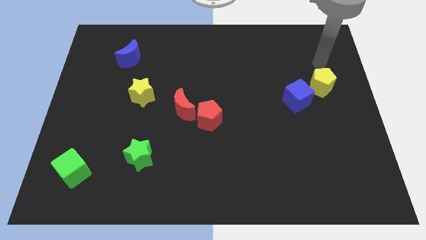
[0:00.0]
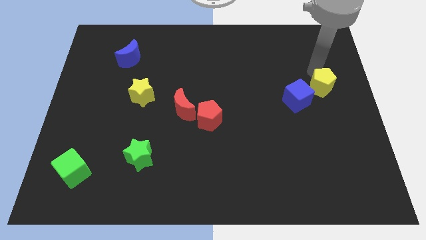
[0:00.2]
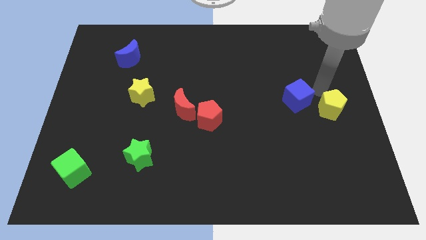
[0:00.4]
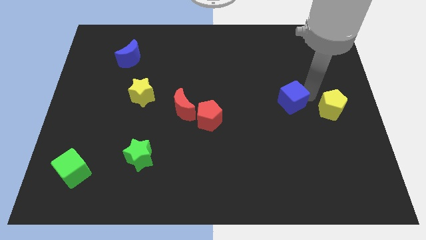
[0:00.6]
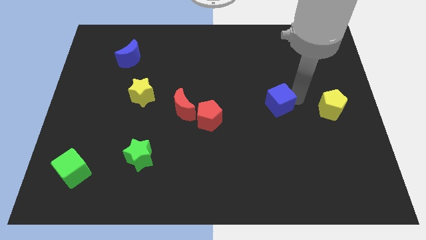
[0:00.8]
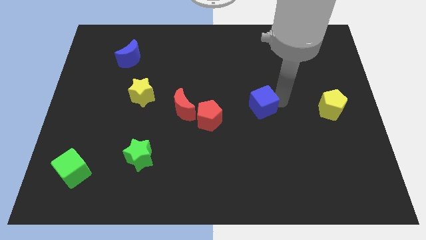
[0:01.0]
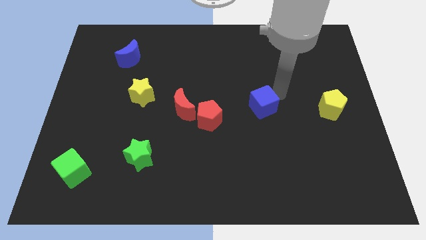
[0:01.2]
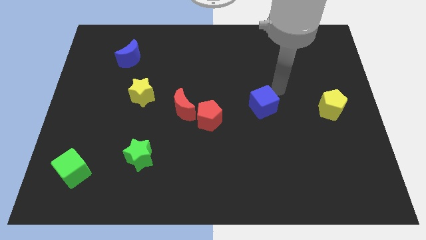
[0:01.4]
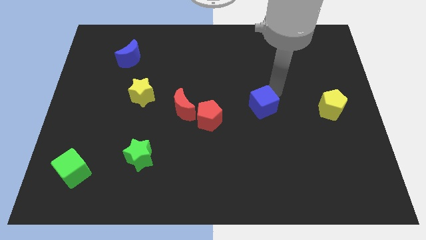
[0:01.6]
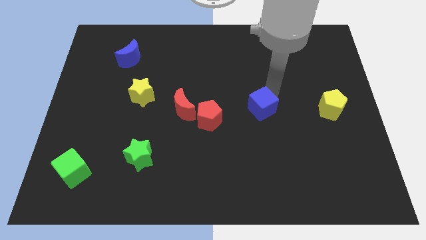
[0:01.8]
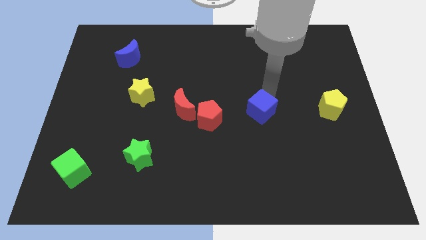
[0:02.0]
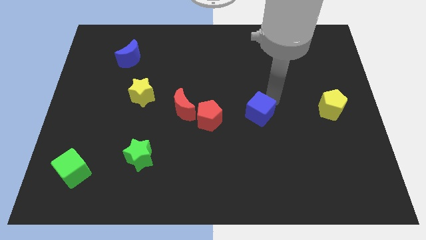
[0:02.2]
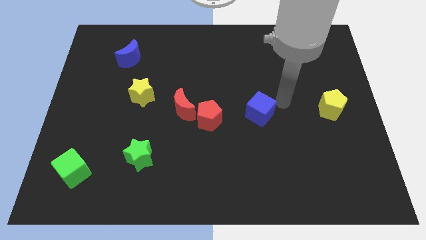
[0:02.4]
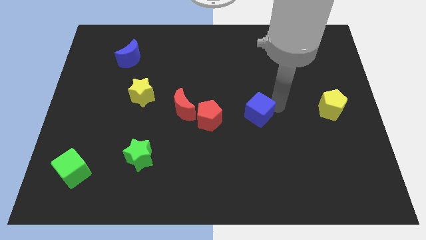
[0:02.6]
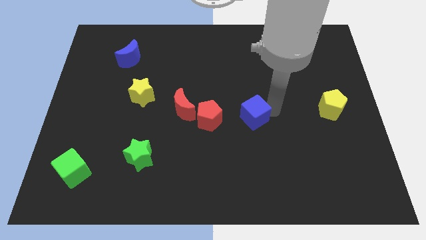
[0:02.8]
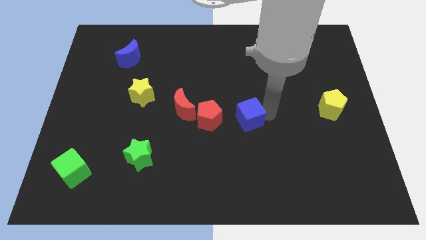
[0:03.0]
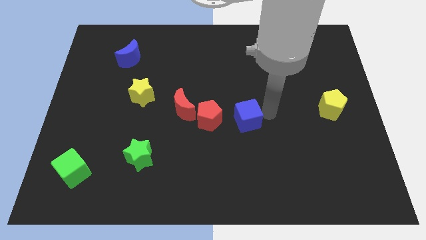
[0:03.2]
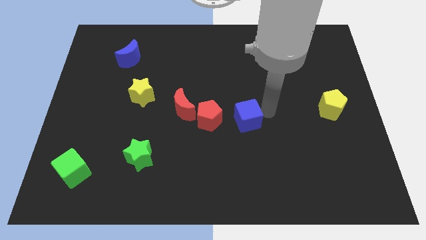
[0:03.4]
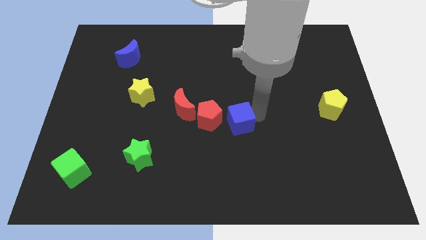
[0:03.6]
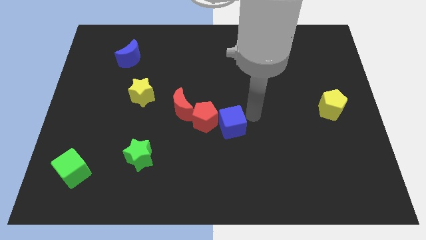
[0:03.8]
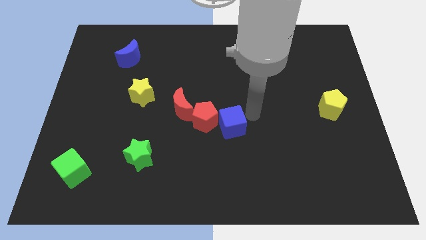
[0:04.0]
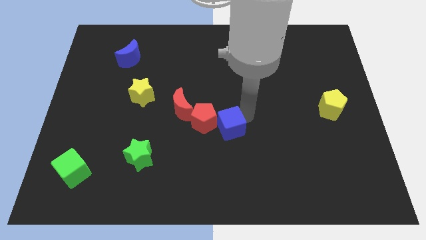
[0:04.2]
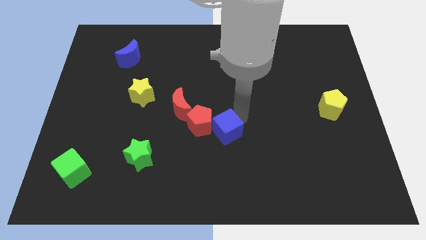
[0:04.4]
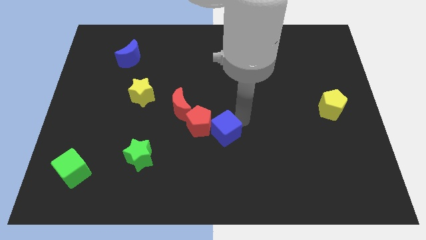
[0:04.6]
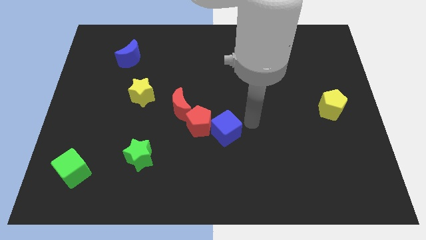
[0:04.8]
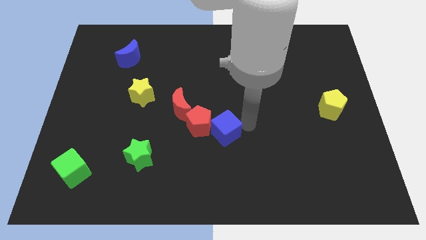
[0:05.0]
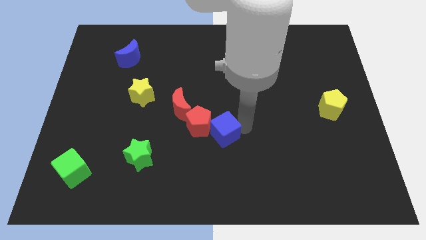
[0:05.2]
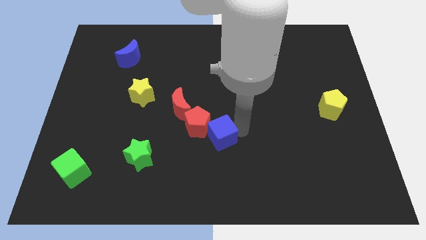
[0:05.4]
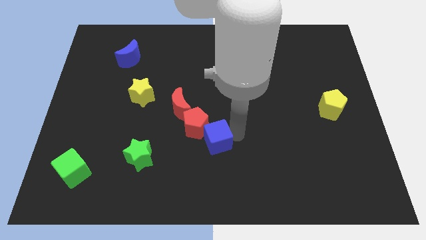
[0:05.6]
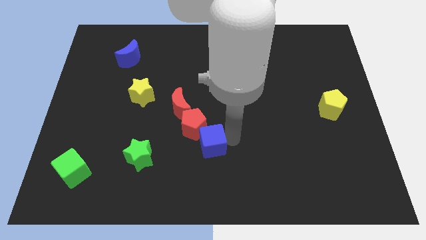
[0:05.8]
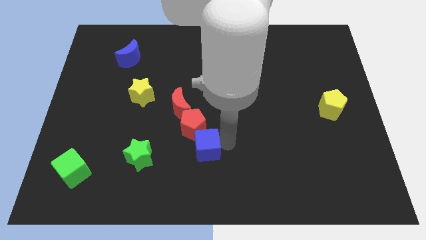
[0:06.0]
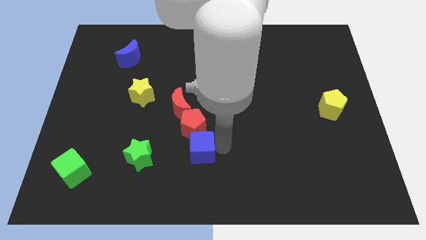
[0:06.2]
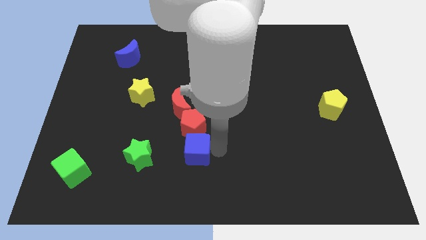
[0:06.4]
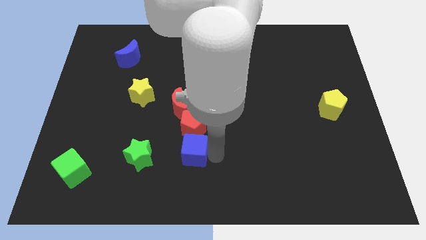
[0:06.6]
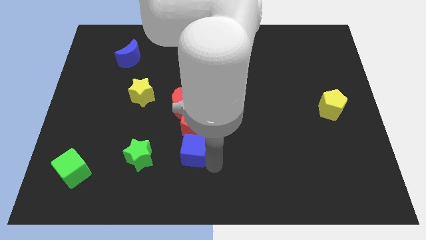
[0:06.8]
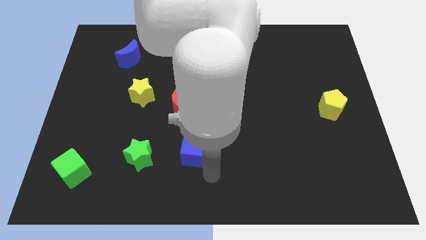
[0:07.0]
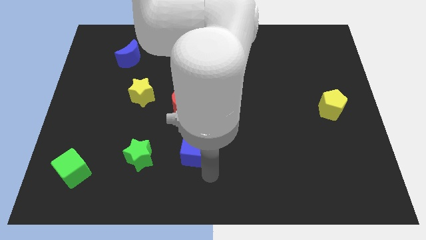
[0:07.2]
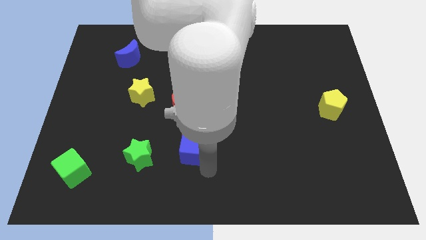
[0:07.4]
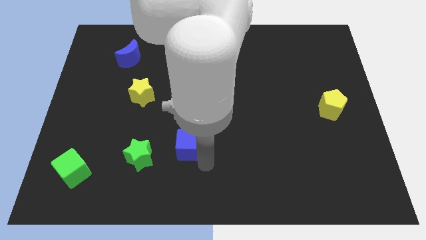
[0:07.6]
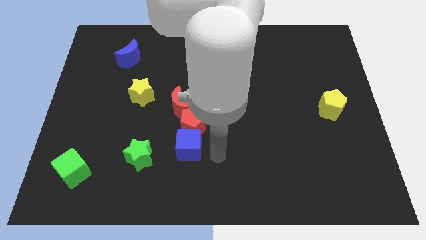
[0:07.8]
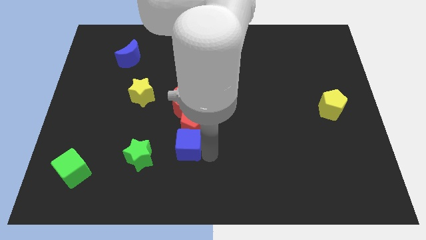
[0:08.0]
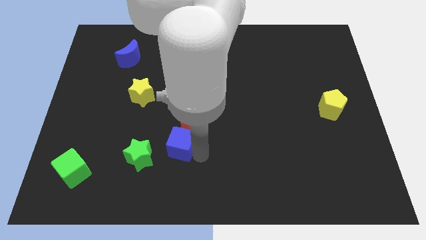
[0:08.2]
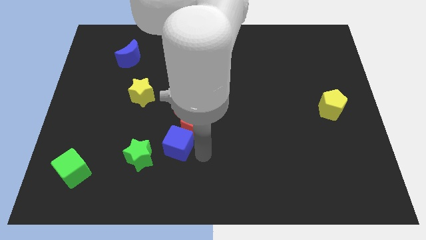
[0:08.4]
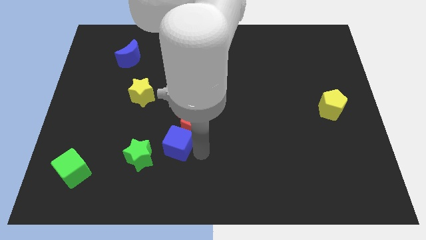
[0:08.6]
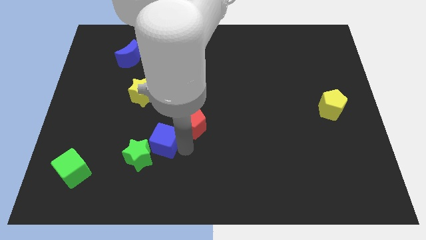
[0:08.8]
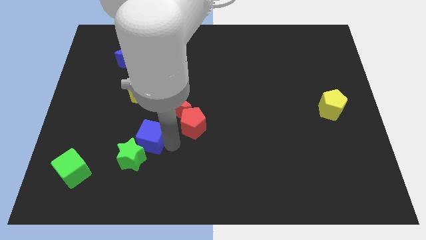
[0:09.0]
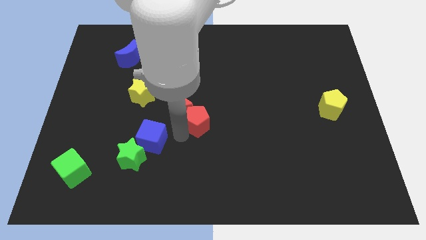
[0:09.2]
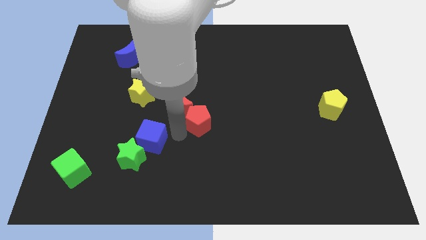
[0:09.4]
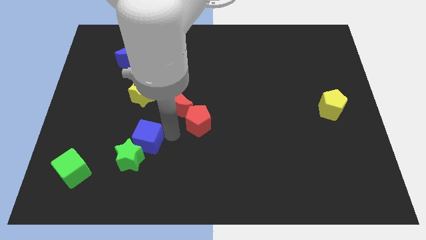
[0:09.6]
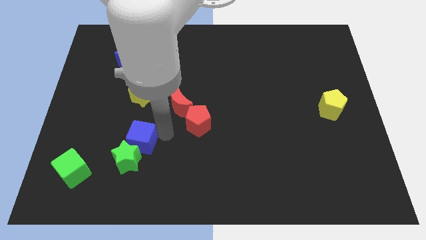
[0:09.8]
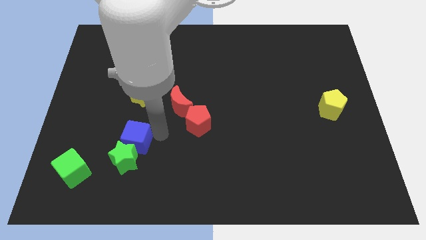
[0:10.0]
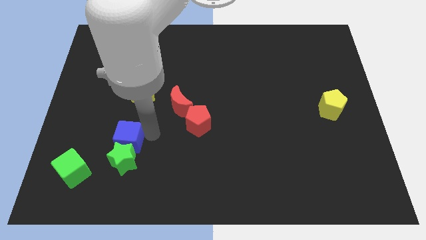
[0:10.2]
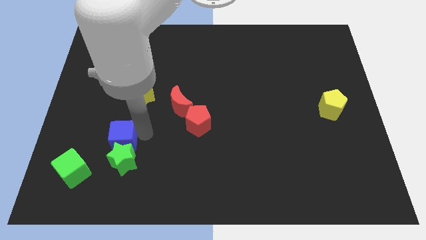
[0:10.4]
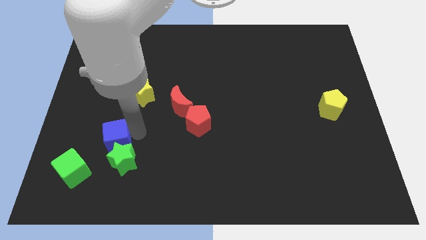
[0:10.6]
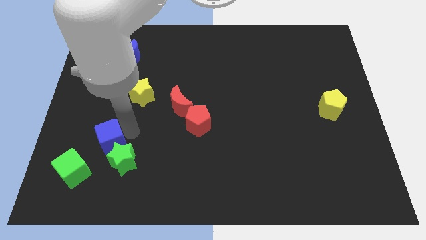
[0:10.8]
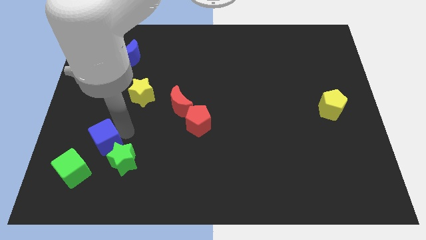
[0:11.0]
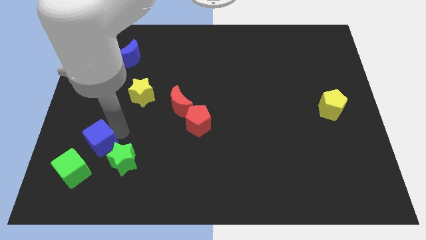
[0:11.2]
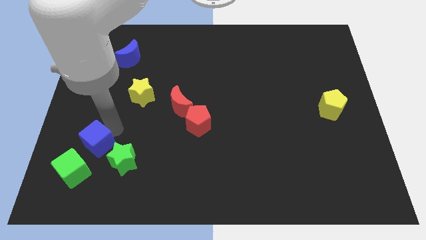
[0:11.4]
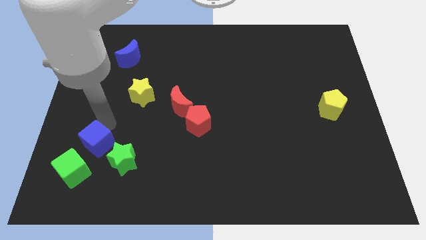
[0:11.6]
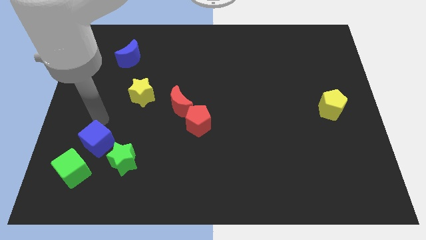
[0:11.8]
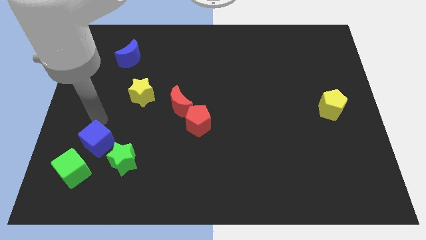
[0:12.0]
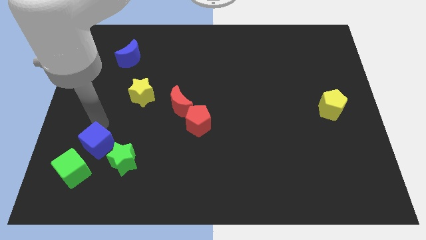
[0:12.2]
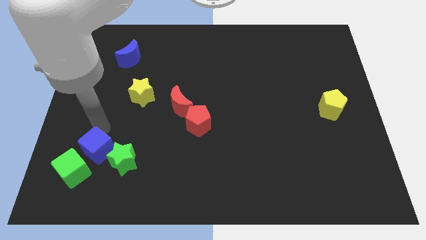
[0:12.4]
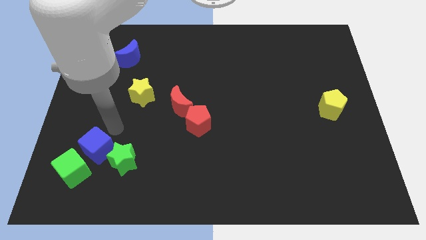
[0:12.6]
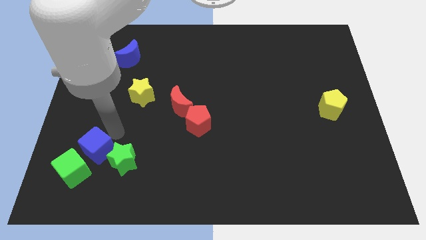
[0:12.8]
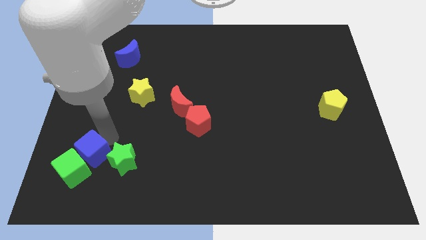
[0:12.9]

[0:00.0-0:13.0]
put the blue cube towards the green cube

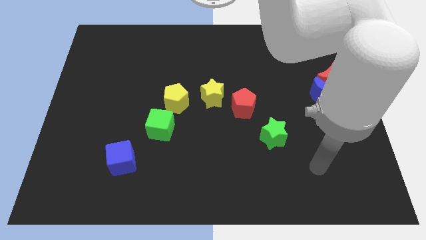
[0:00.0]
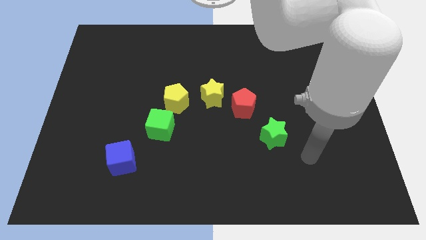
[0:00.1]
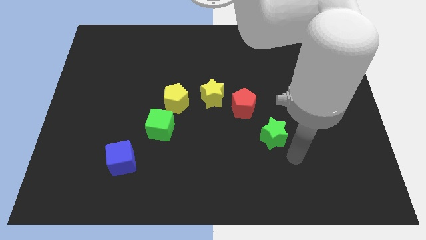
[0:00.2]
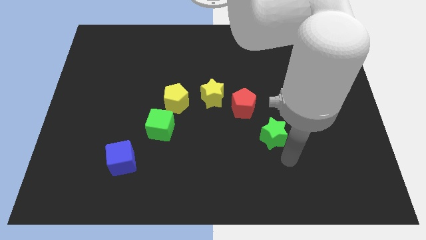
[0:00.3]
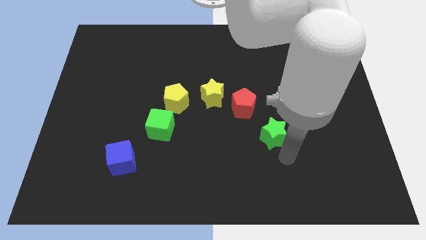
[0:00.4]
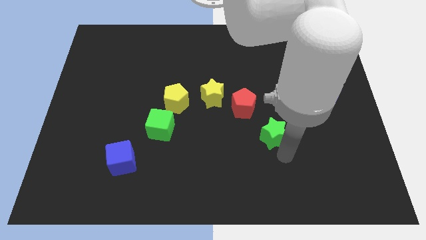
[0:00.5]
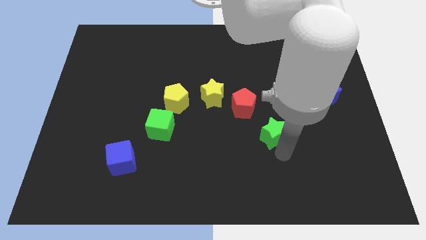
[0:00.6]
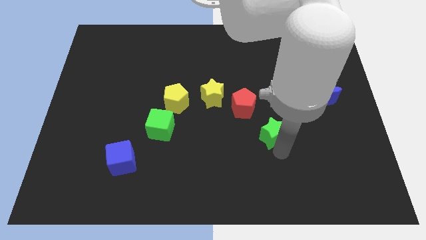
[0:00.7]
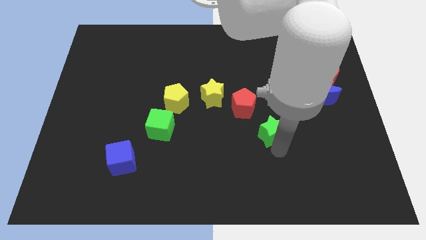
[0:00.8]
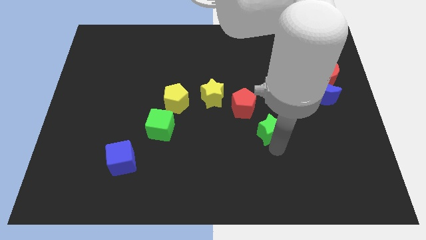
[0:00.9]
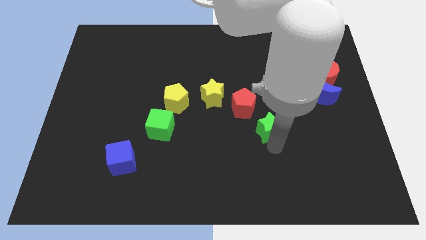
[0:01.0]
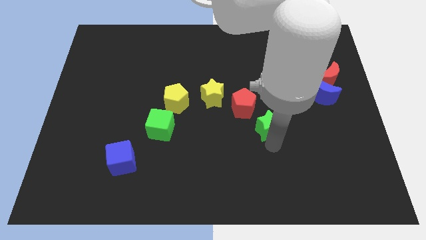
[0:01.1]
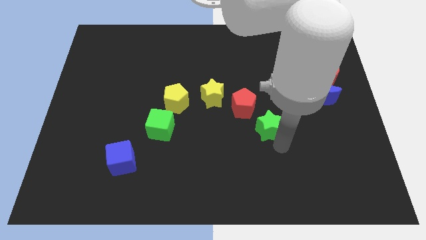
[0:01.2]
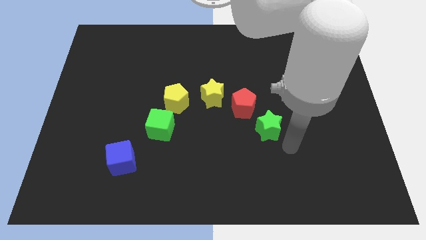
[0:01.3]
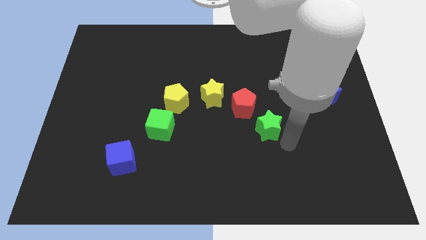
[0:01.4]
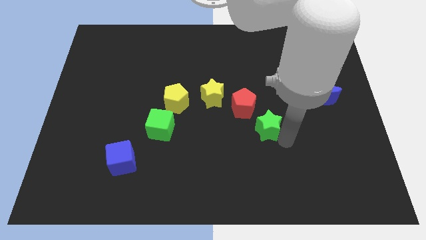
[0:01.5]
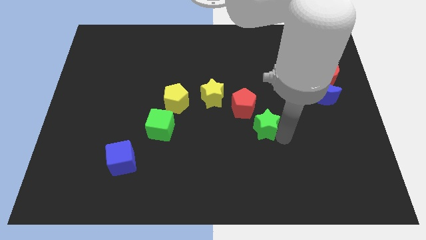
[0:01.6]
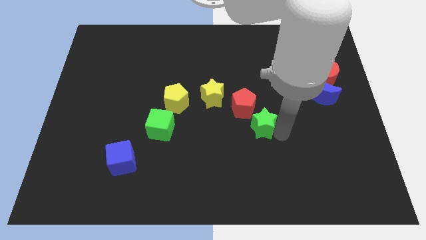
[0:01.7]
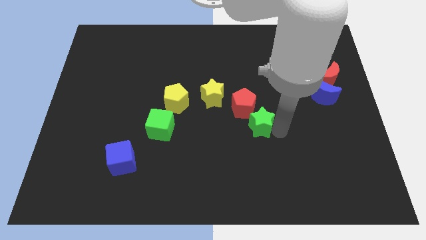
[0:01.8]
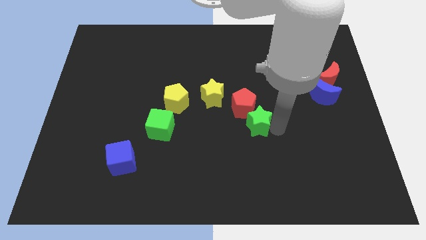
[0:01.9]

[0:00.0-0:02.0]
move the green star close to the red pentagon
